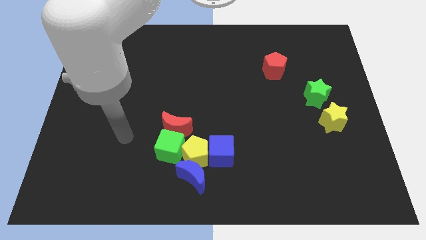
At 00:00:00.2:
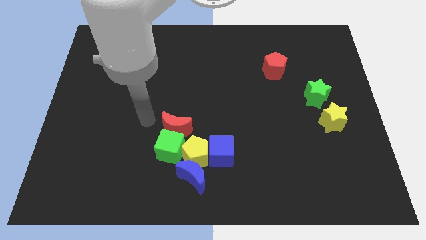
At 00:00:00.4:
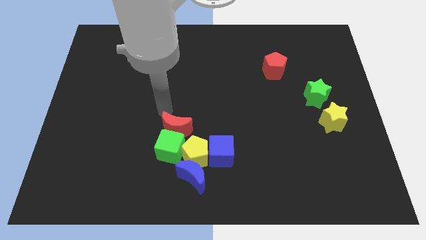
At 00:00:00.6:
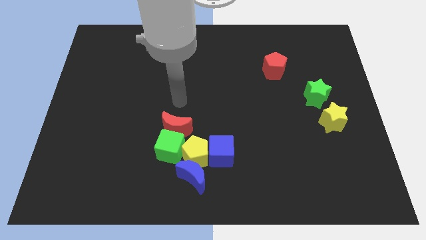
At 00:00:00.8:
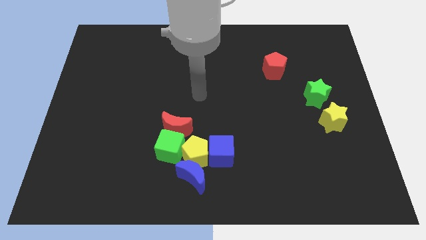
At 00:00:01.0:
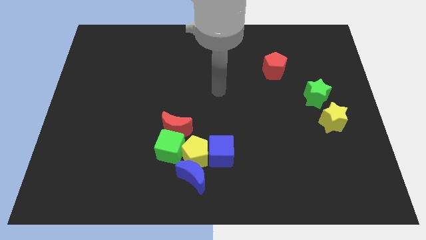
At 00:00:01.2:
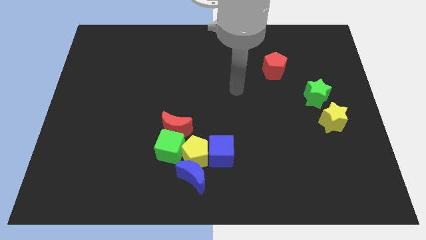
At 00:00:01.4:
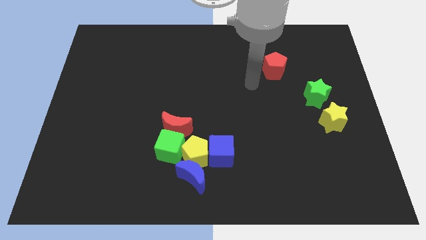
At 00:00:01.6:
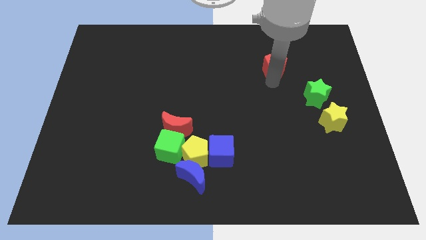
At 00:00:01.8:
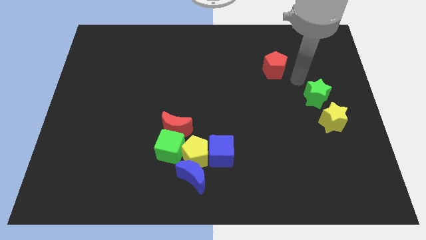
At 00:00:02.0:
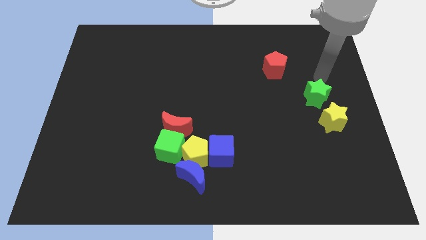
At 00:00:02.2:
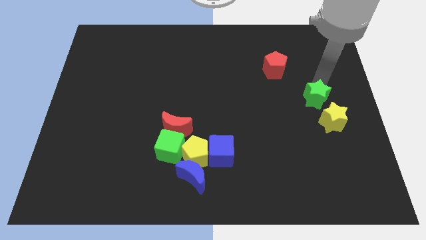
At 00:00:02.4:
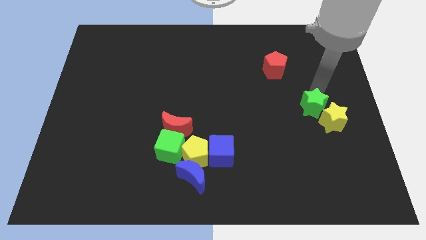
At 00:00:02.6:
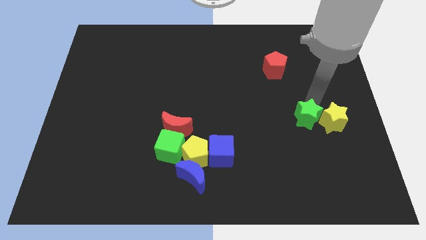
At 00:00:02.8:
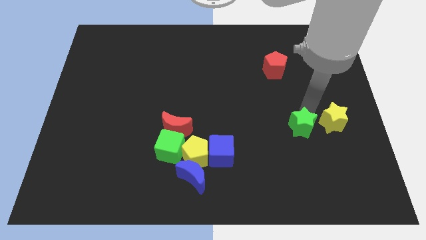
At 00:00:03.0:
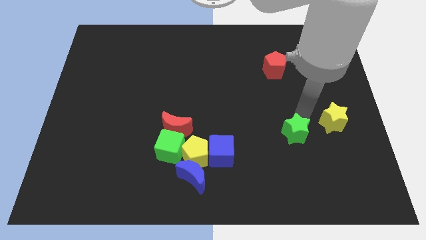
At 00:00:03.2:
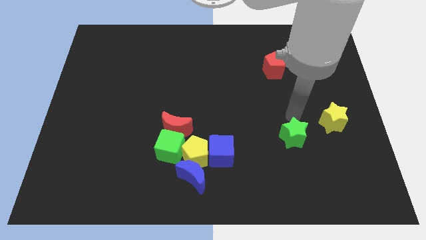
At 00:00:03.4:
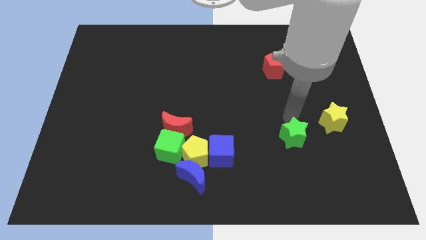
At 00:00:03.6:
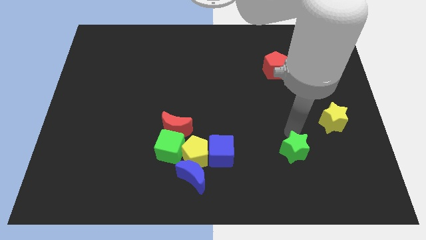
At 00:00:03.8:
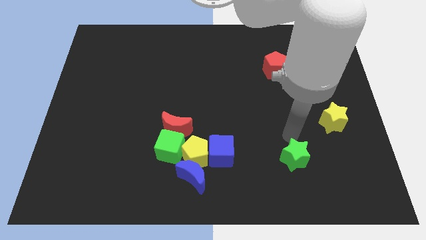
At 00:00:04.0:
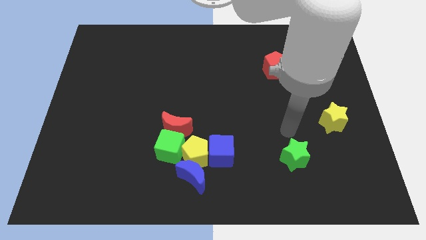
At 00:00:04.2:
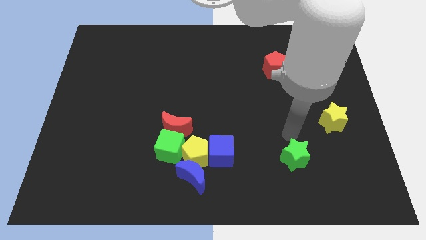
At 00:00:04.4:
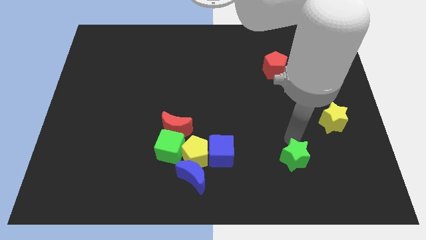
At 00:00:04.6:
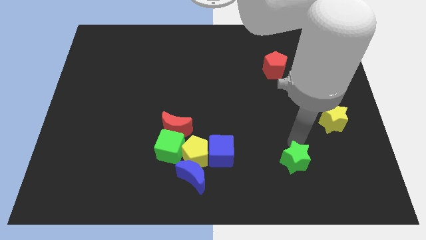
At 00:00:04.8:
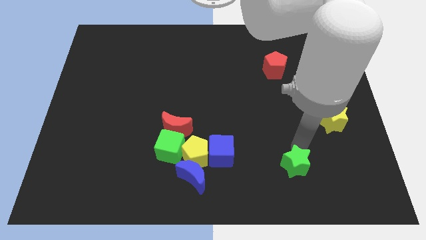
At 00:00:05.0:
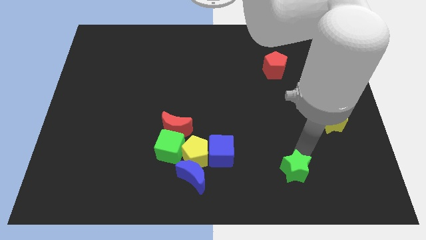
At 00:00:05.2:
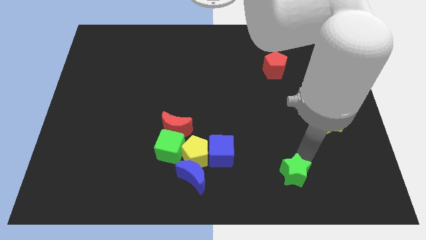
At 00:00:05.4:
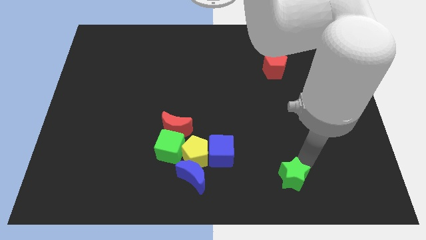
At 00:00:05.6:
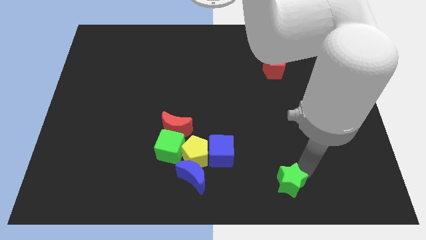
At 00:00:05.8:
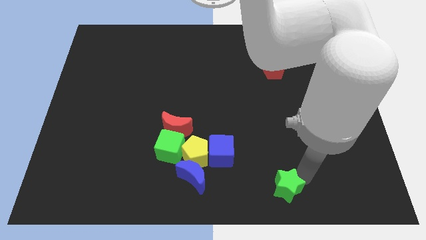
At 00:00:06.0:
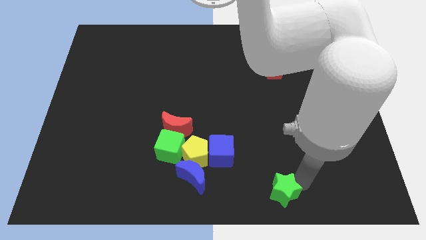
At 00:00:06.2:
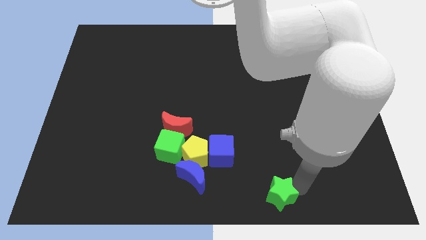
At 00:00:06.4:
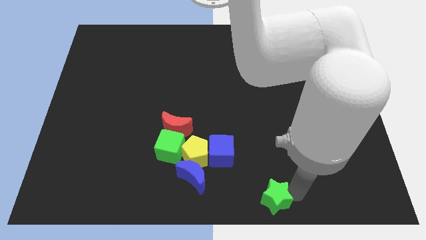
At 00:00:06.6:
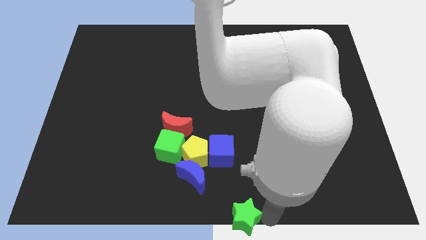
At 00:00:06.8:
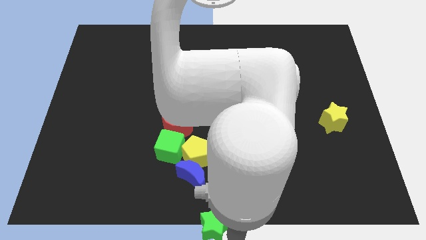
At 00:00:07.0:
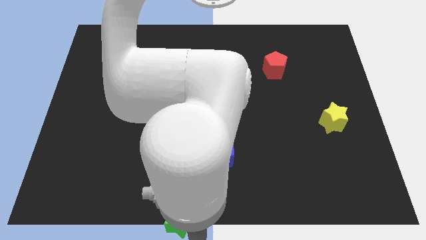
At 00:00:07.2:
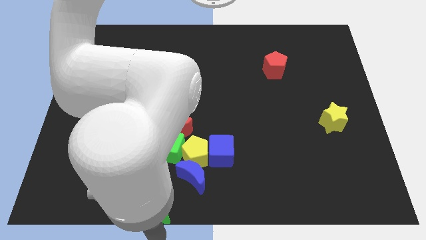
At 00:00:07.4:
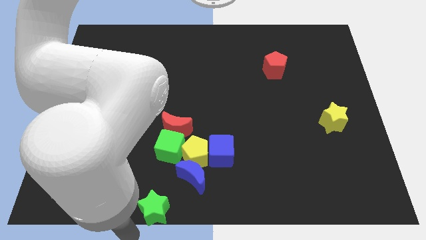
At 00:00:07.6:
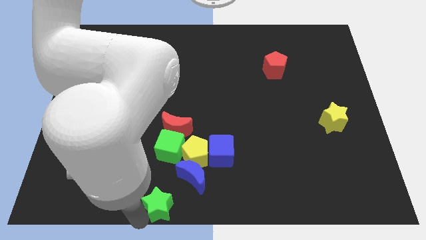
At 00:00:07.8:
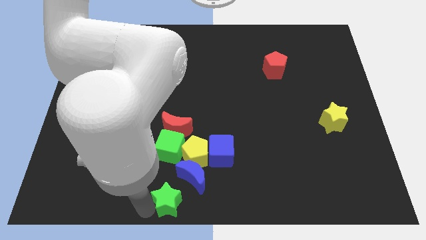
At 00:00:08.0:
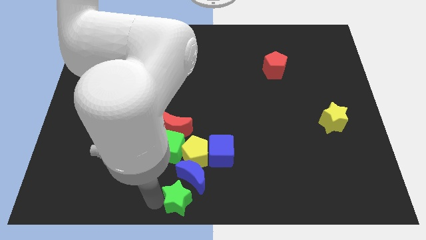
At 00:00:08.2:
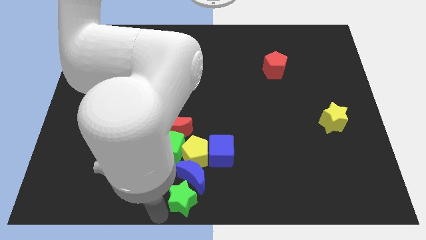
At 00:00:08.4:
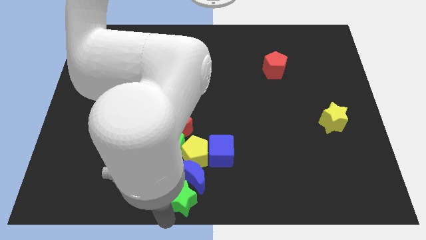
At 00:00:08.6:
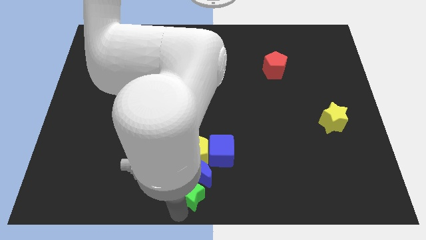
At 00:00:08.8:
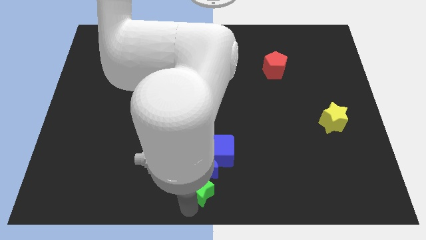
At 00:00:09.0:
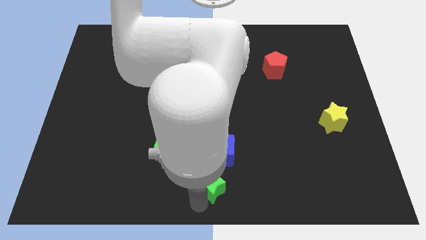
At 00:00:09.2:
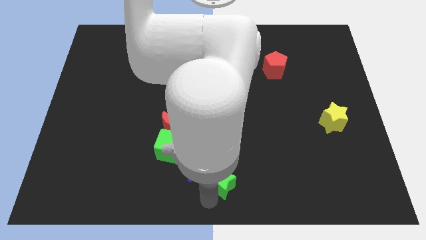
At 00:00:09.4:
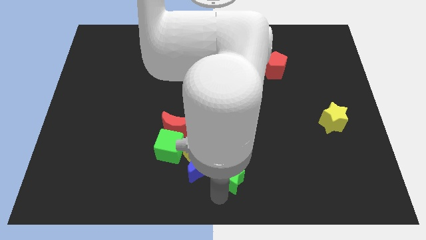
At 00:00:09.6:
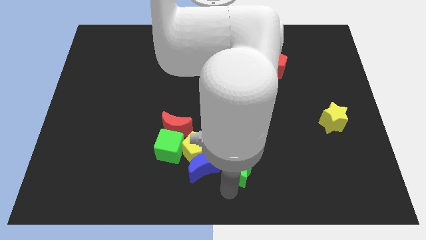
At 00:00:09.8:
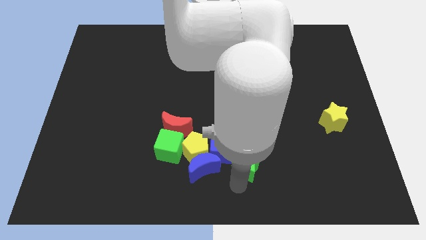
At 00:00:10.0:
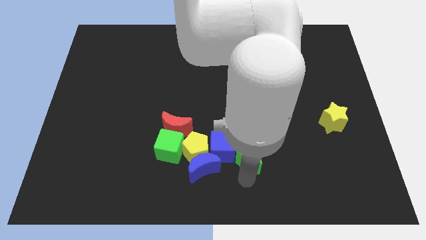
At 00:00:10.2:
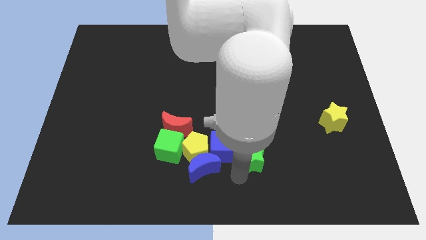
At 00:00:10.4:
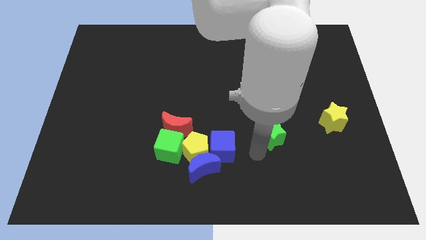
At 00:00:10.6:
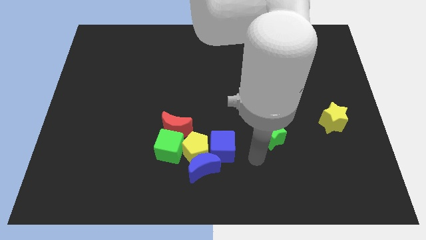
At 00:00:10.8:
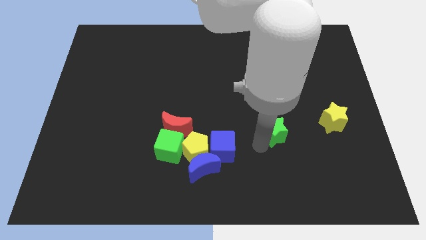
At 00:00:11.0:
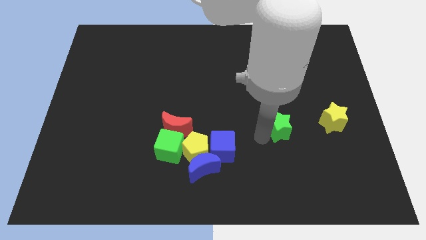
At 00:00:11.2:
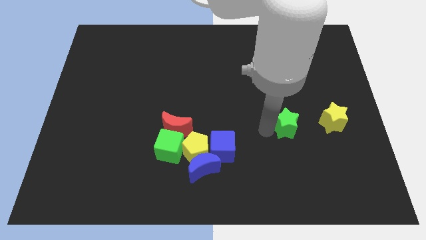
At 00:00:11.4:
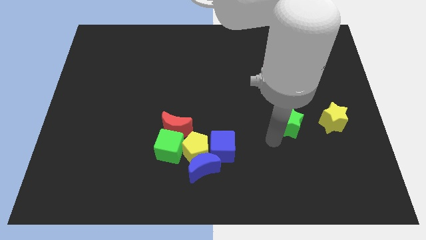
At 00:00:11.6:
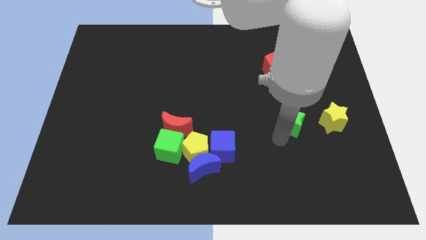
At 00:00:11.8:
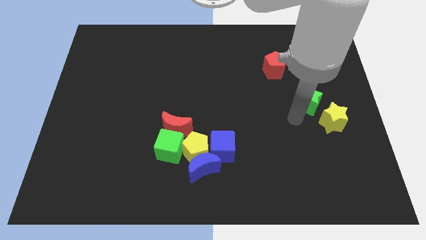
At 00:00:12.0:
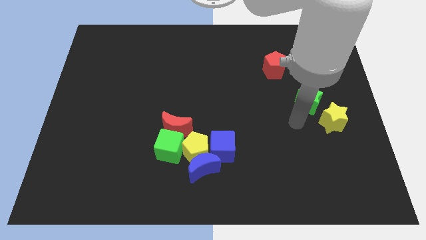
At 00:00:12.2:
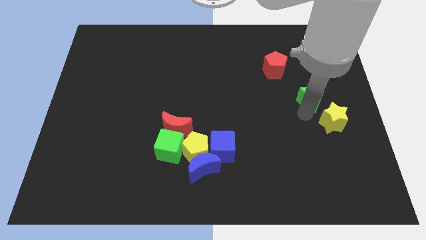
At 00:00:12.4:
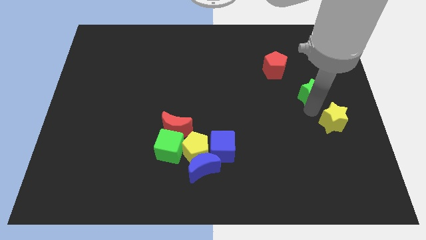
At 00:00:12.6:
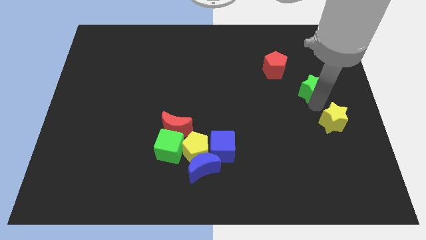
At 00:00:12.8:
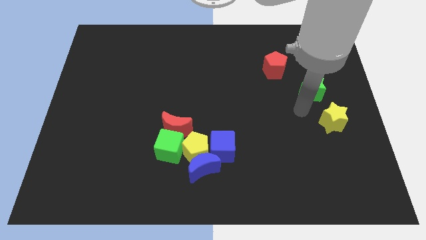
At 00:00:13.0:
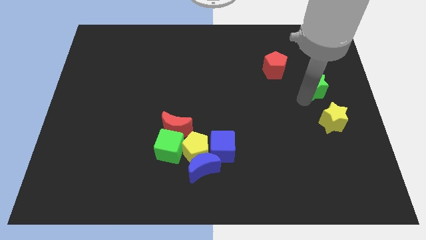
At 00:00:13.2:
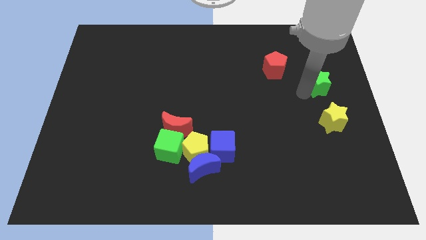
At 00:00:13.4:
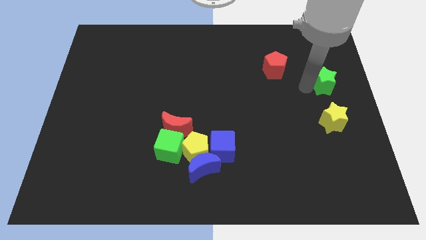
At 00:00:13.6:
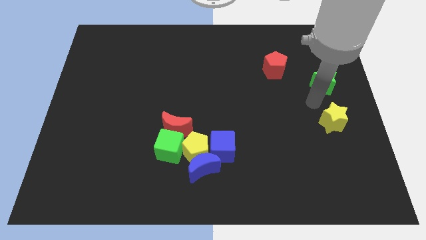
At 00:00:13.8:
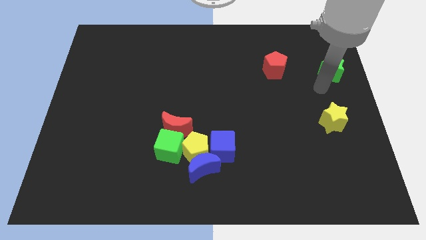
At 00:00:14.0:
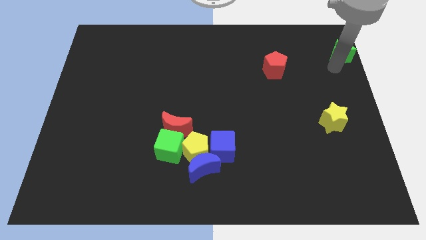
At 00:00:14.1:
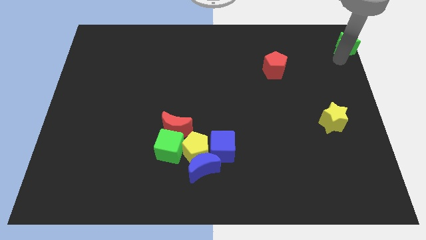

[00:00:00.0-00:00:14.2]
push the green star to the upper right corner
